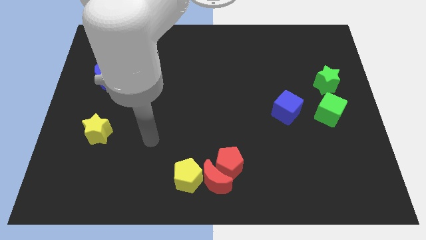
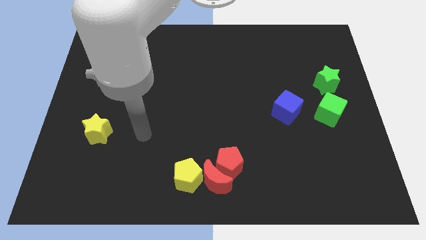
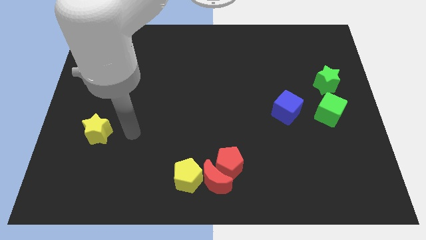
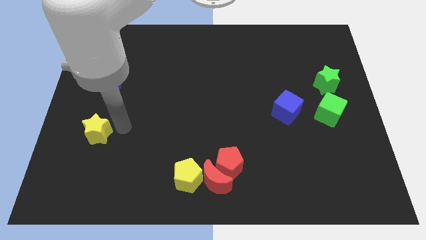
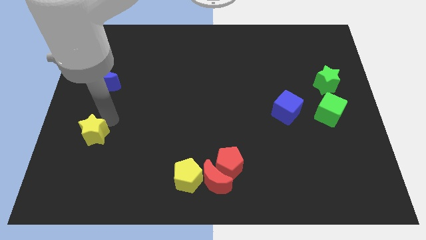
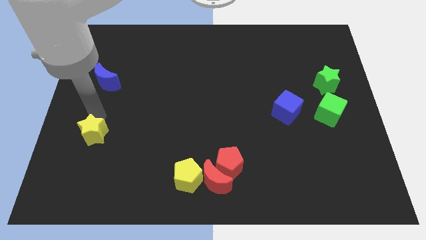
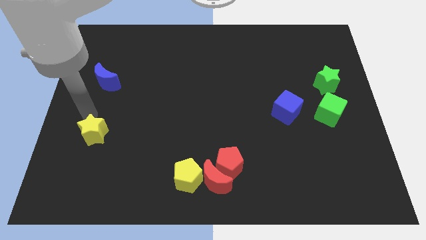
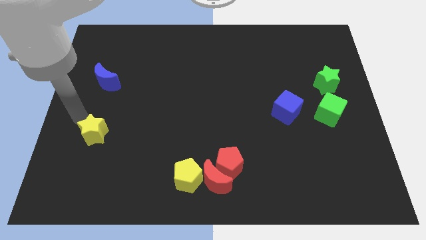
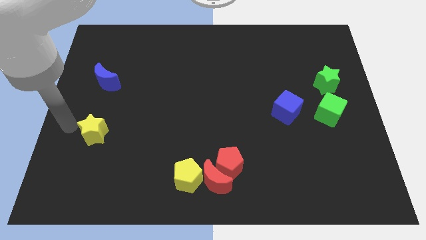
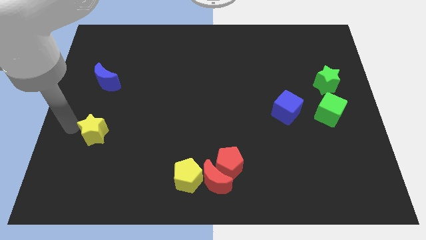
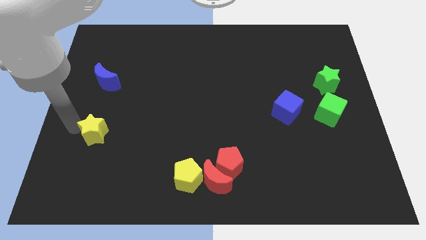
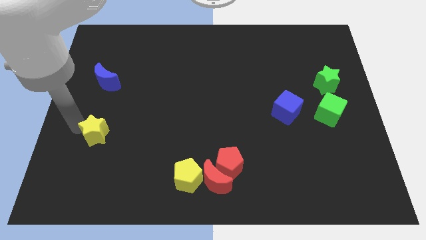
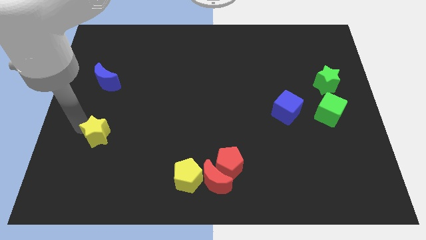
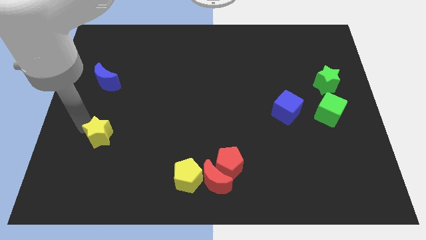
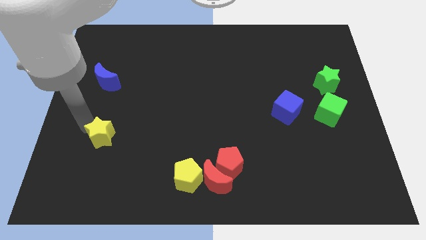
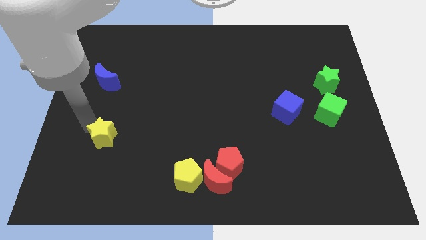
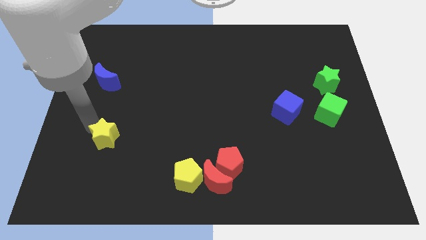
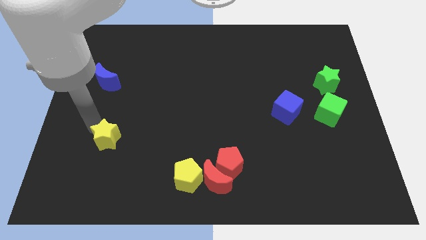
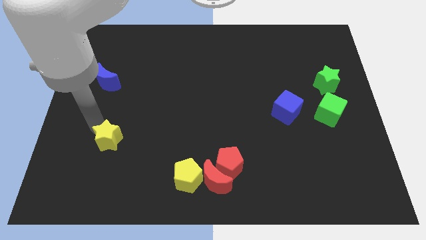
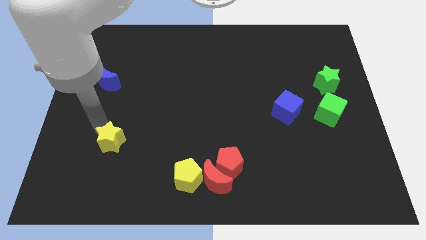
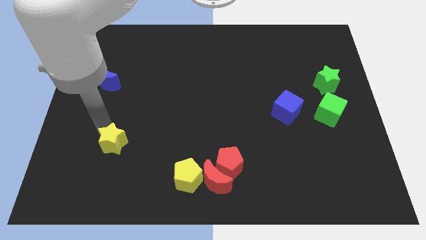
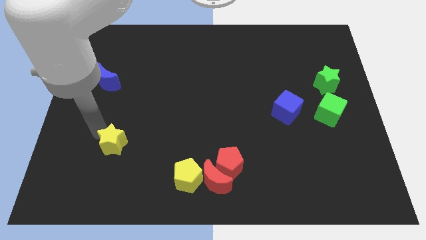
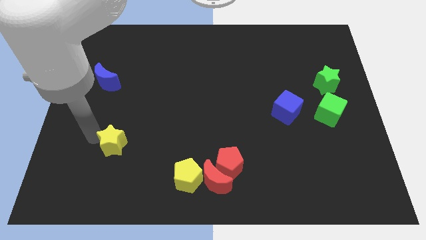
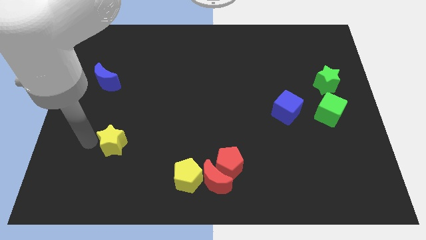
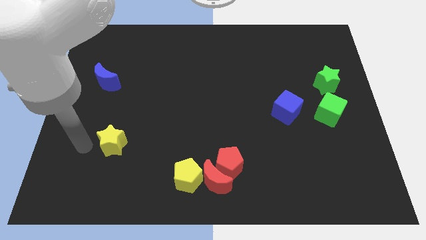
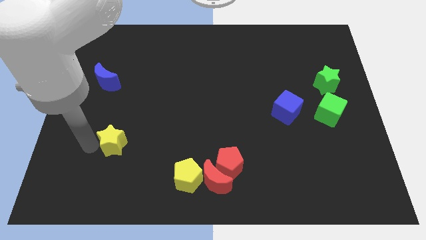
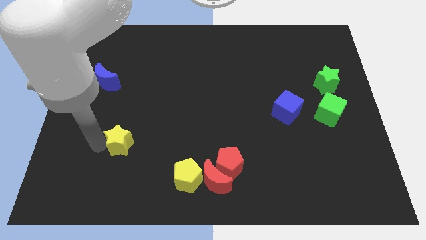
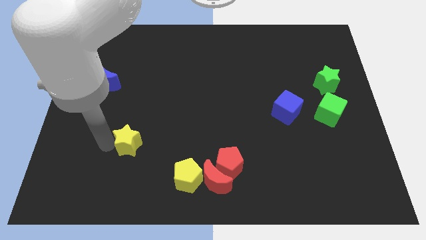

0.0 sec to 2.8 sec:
push the yellow star a bit right

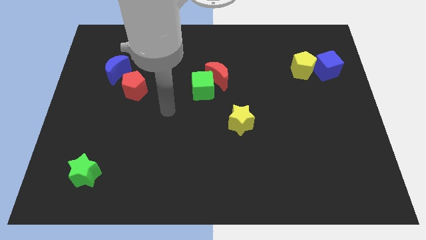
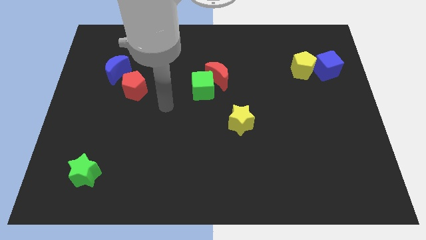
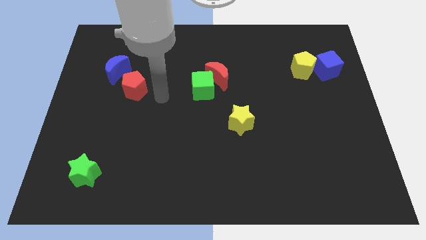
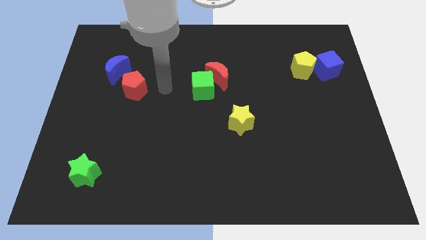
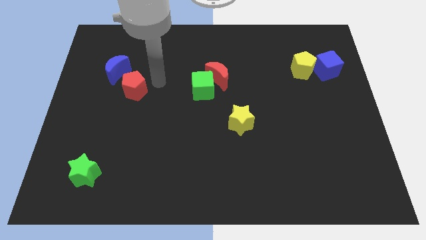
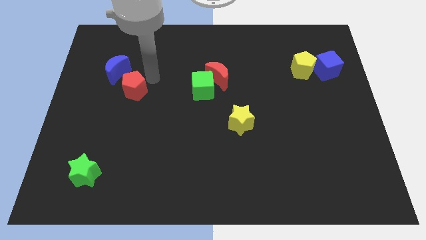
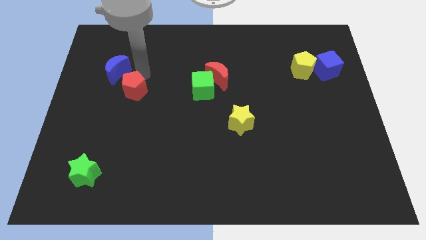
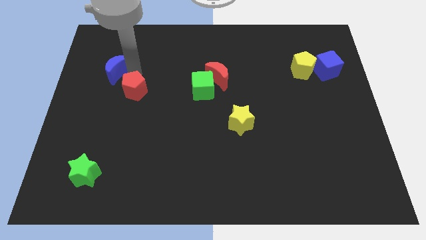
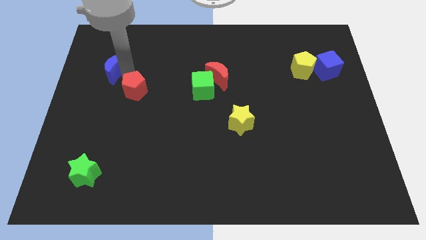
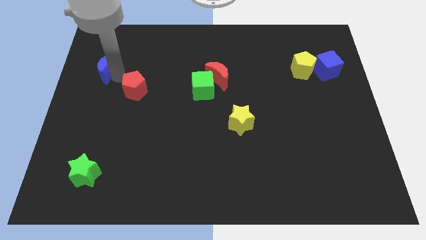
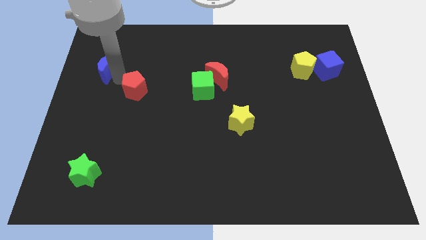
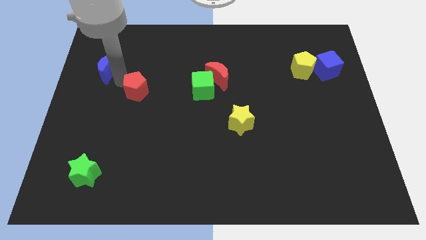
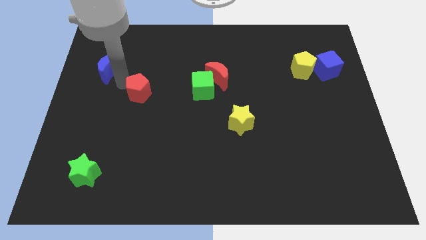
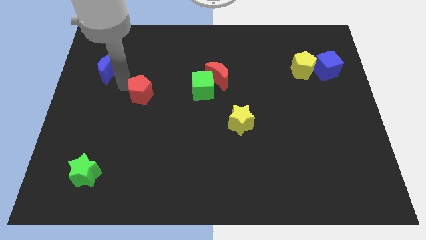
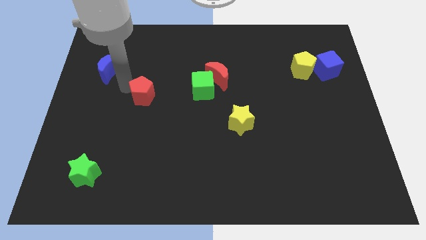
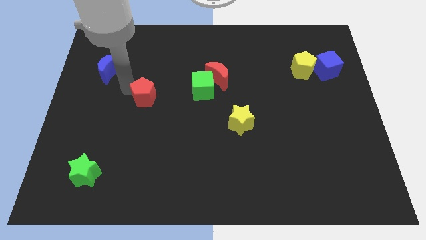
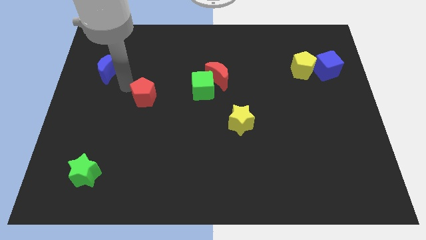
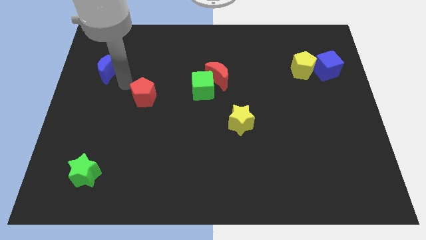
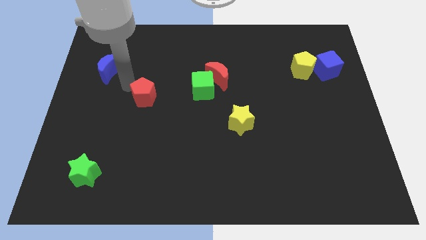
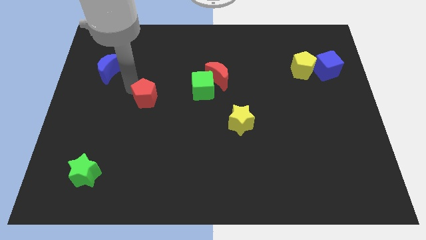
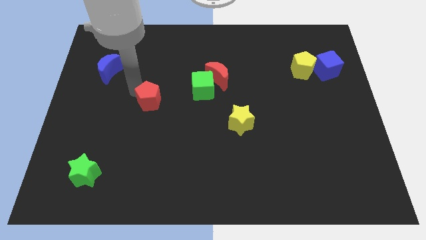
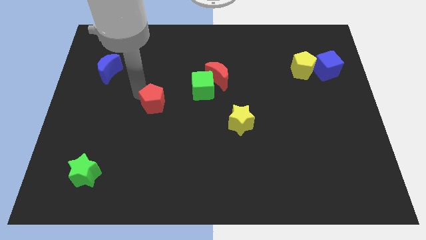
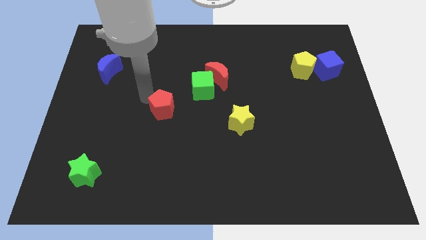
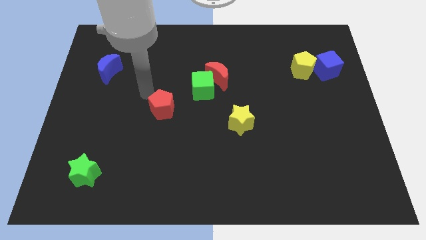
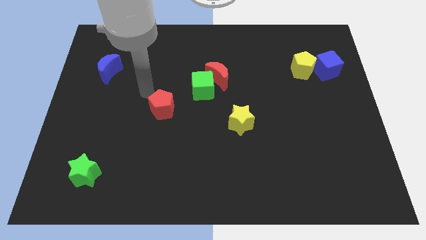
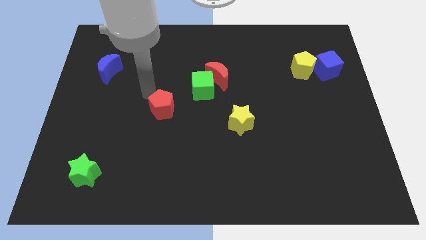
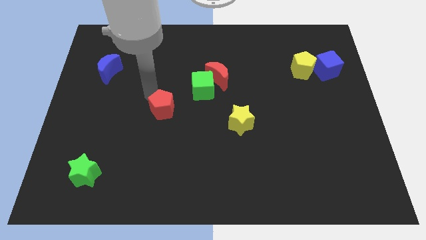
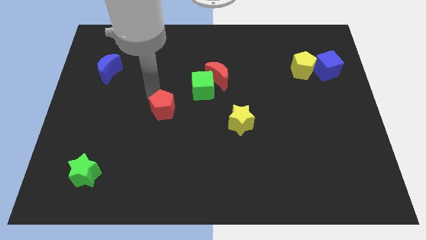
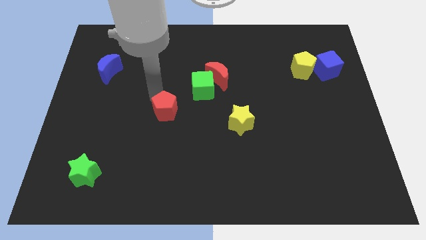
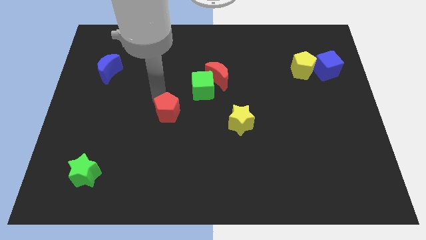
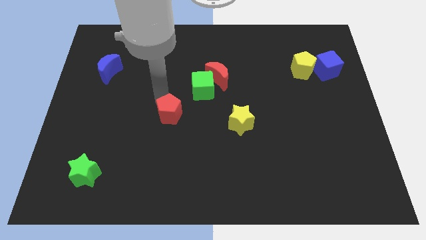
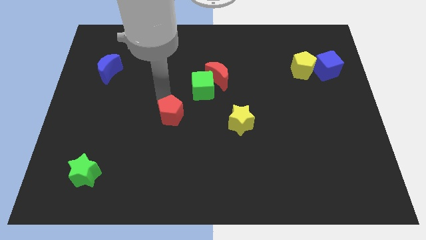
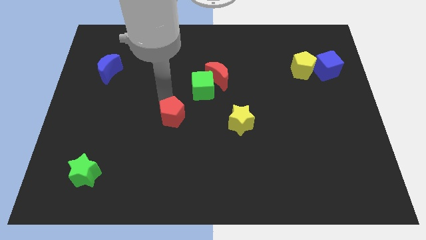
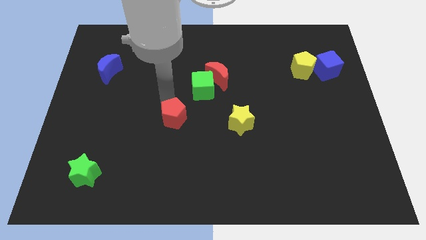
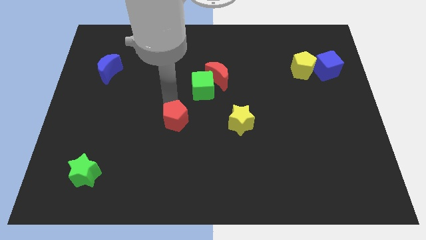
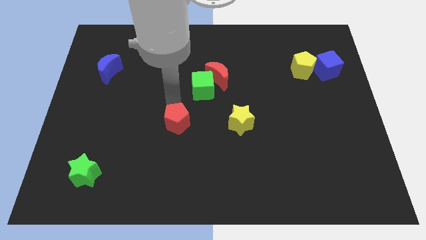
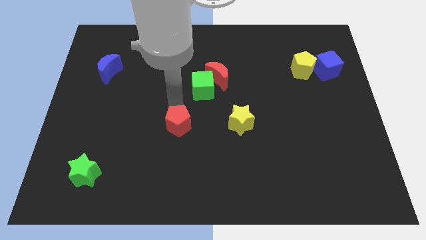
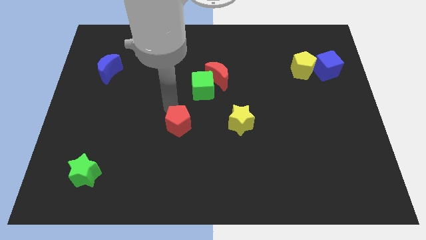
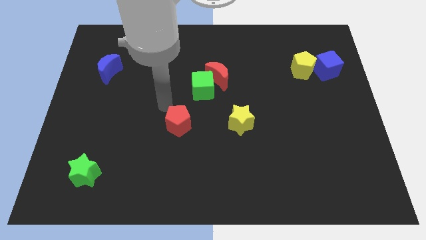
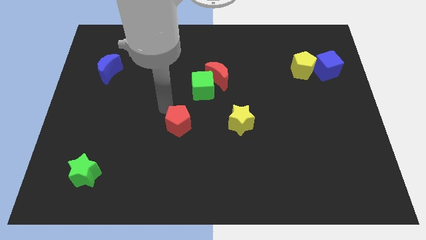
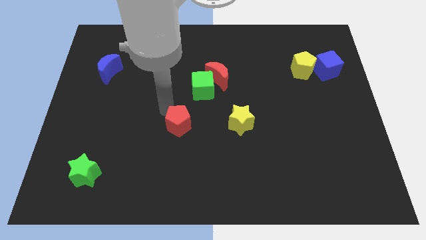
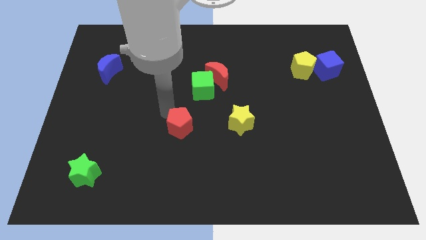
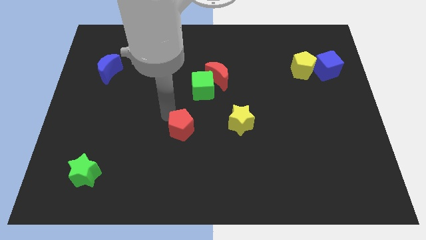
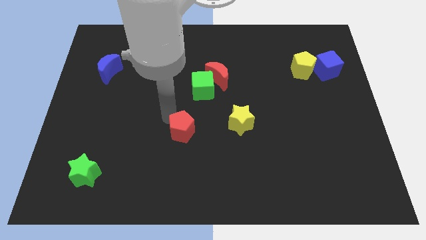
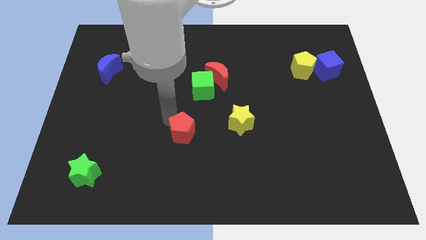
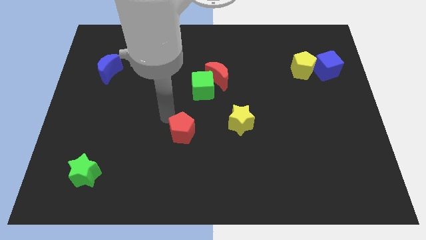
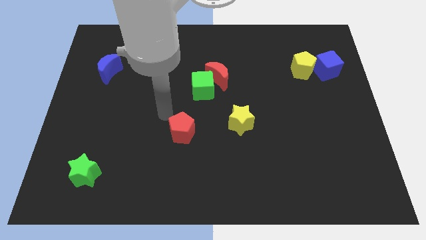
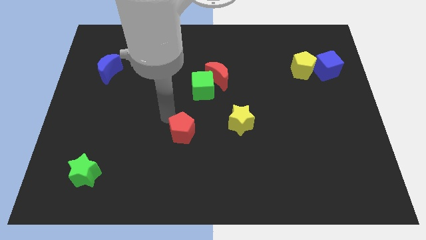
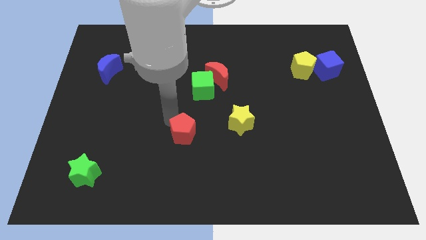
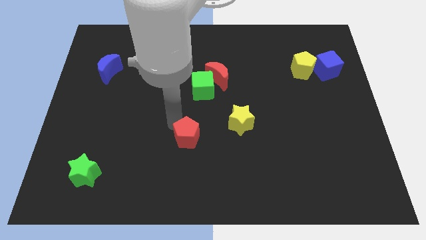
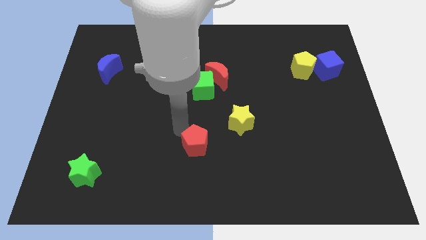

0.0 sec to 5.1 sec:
slide the red pentagon down and to the right
